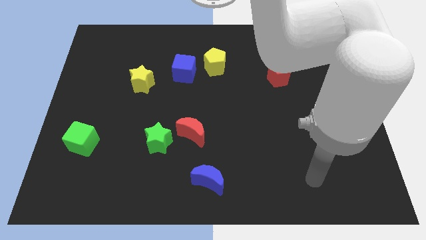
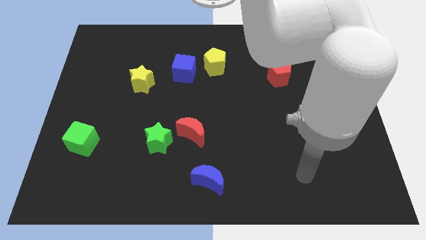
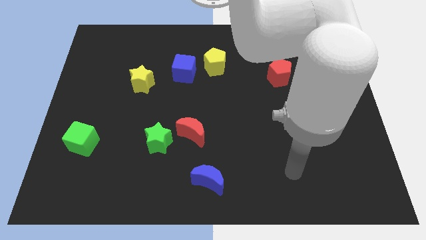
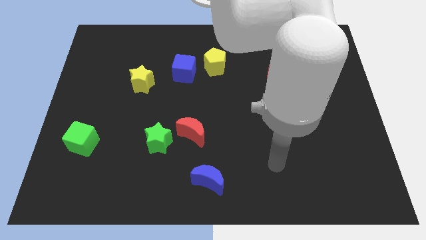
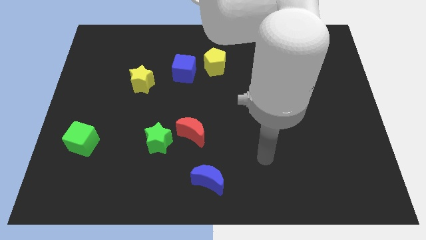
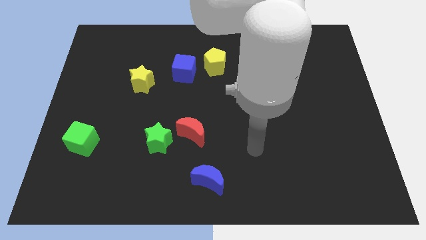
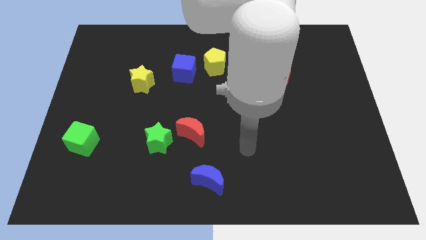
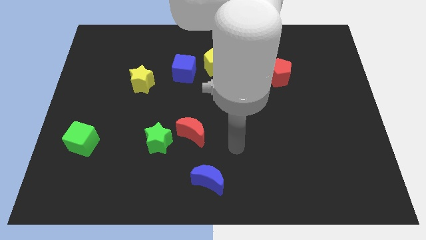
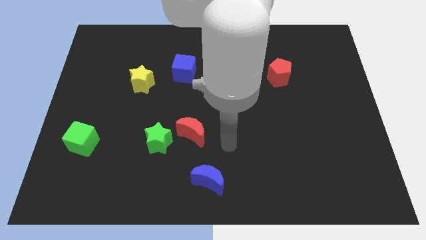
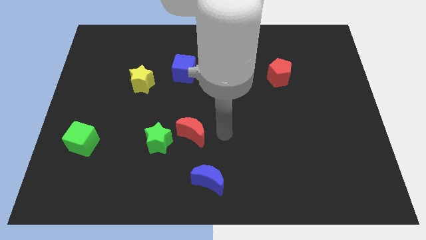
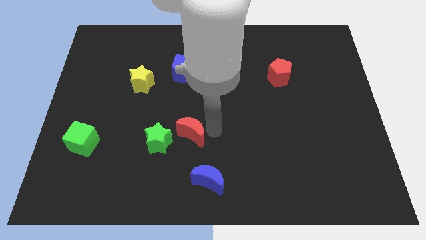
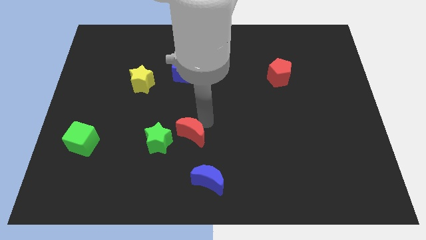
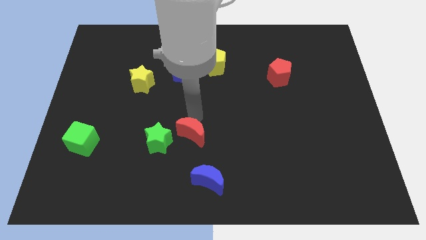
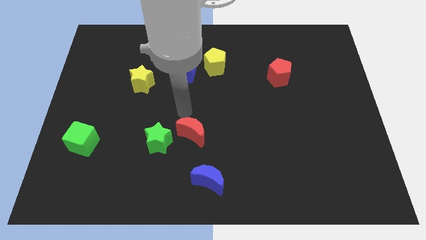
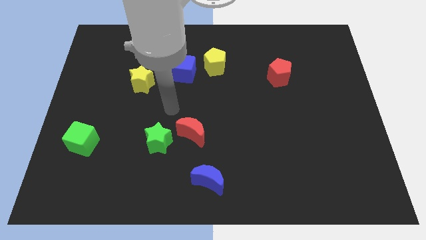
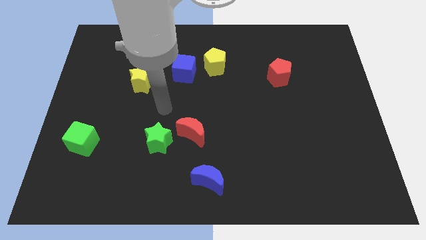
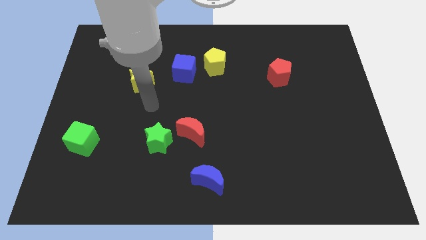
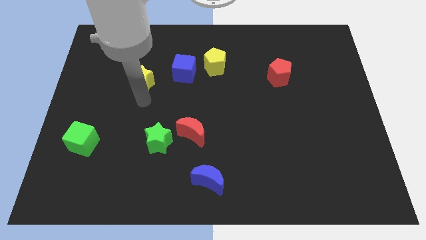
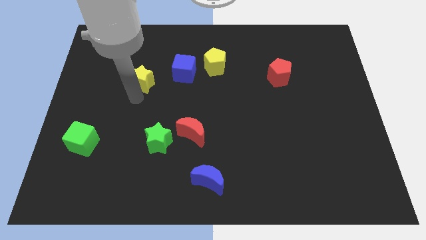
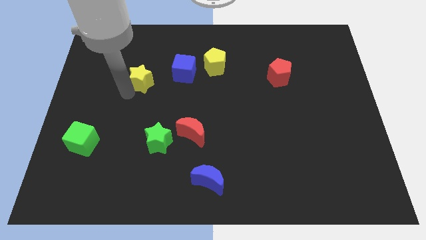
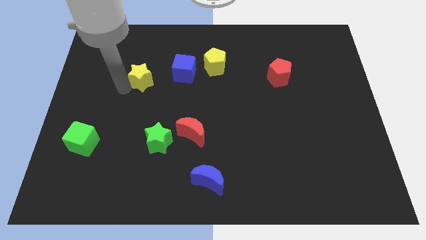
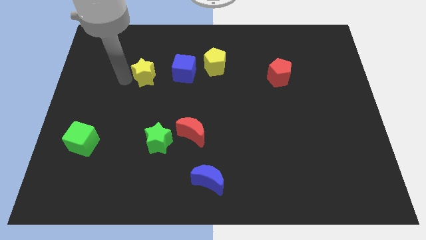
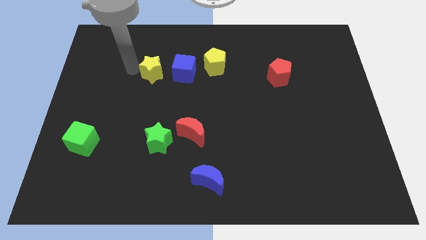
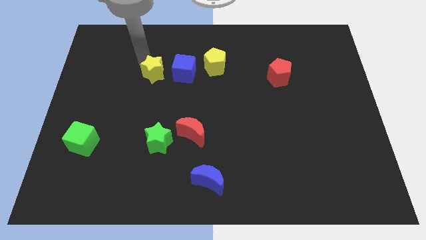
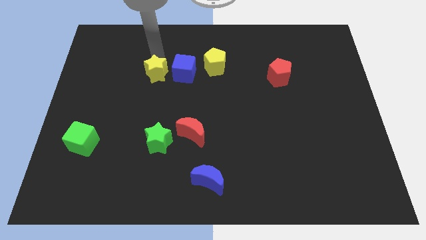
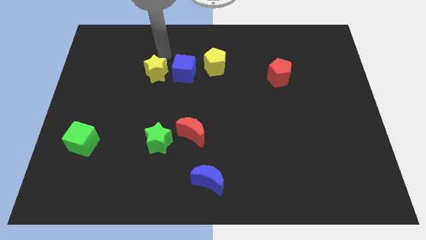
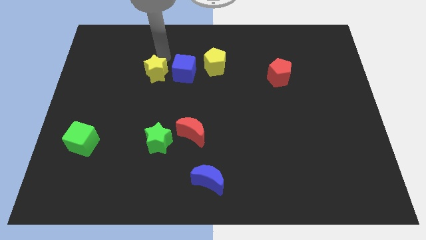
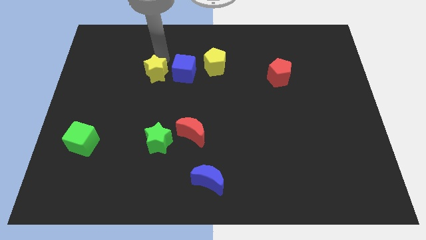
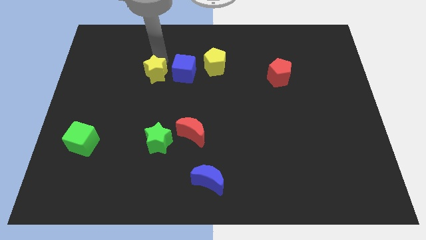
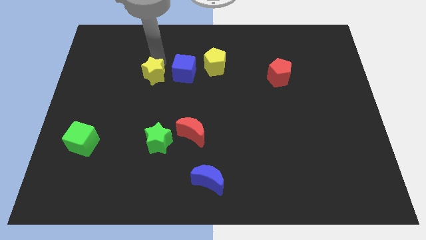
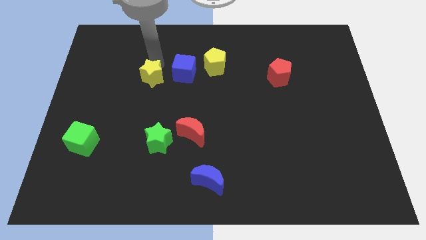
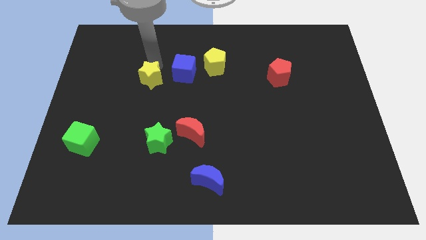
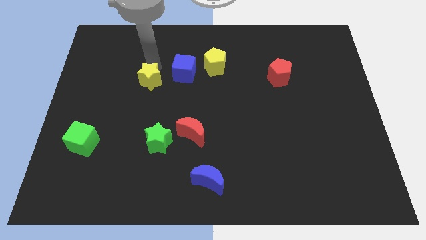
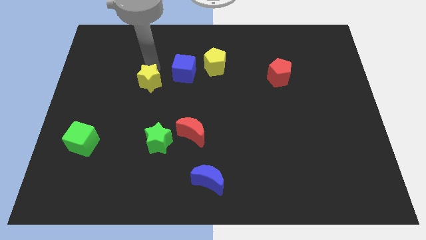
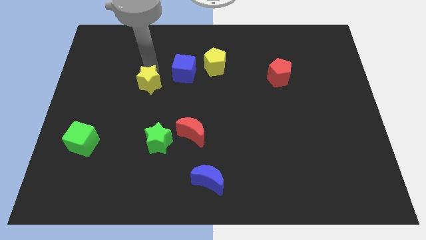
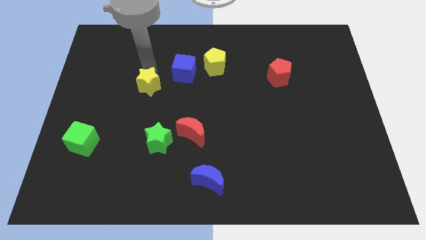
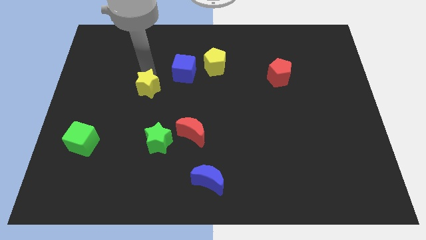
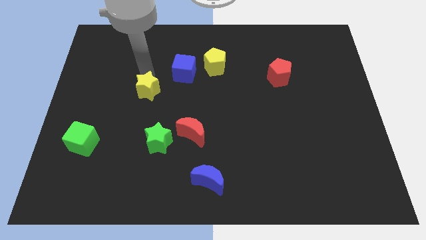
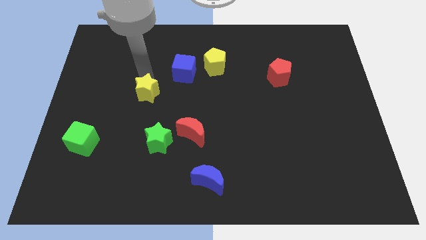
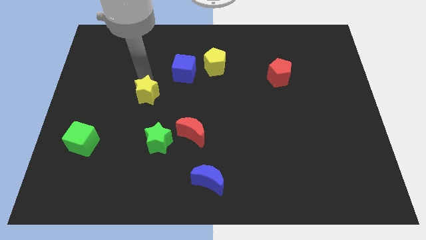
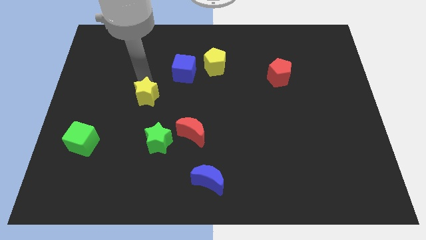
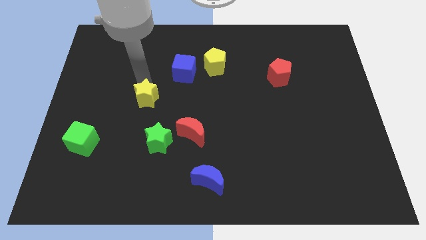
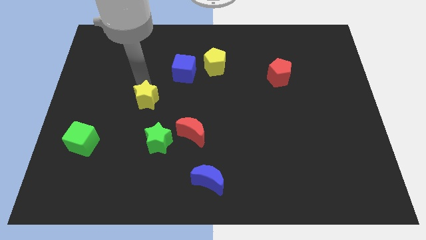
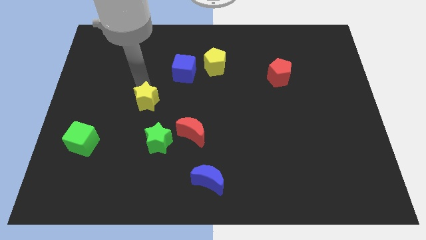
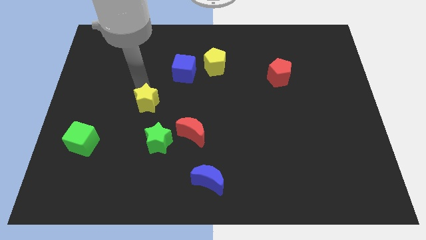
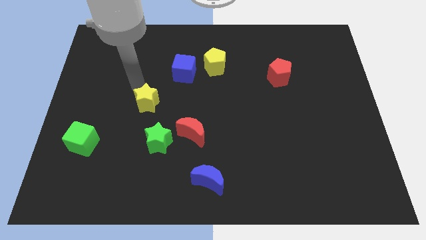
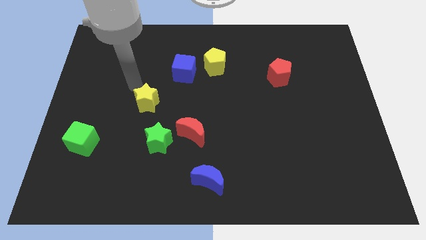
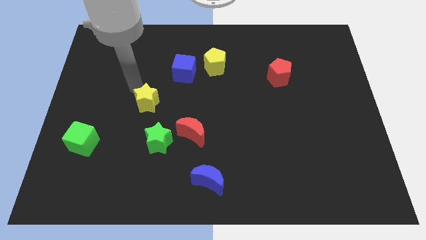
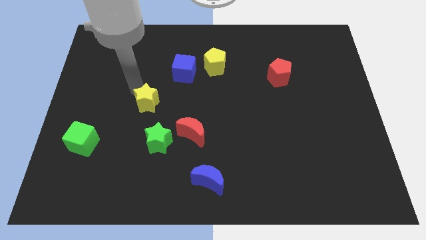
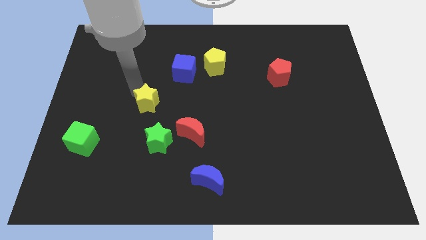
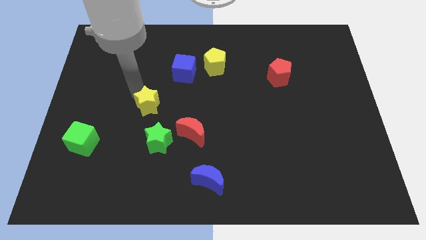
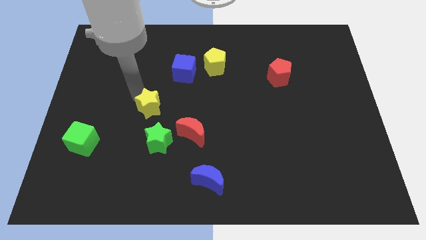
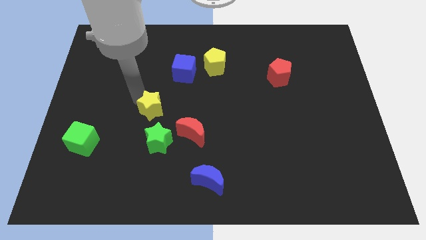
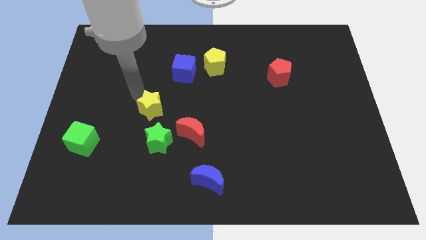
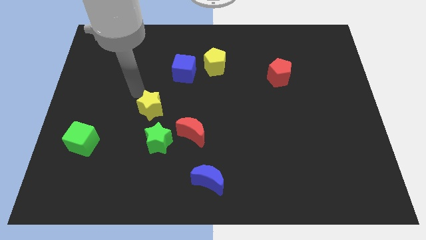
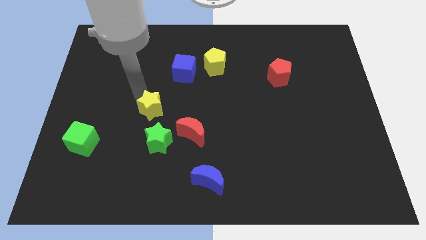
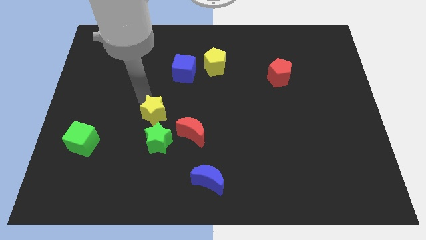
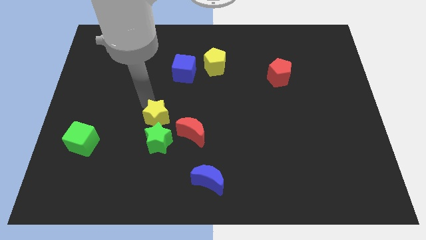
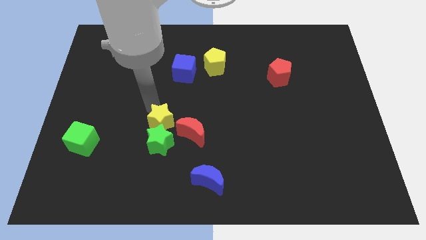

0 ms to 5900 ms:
put the yellow star towards the green star

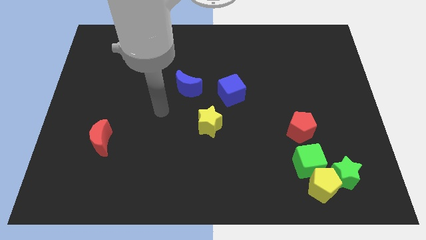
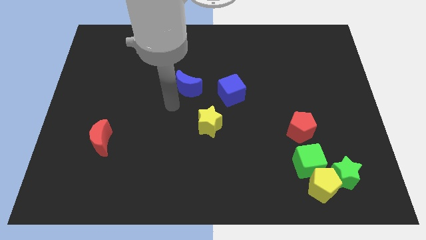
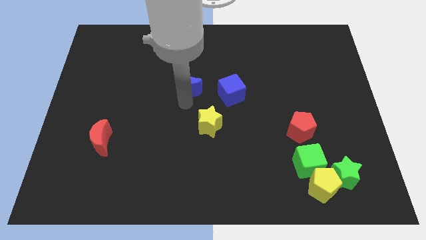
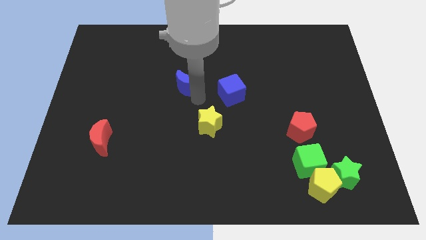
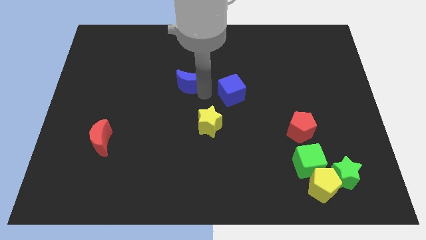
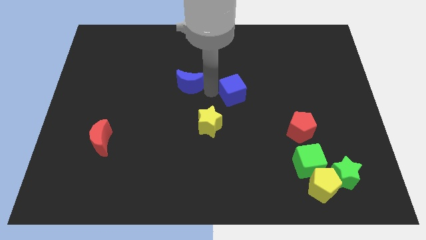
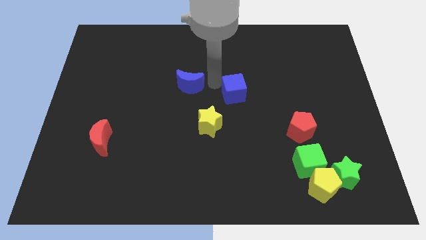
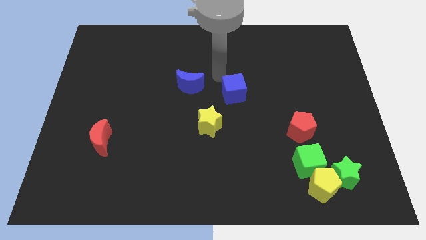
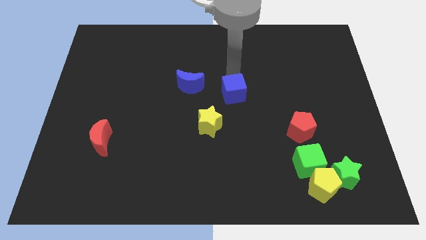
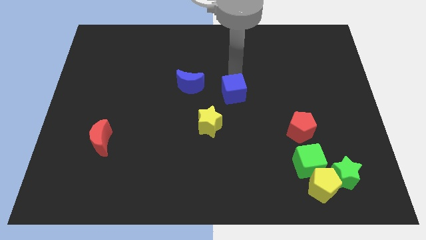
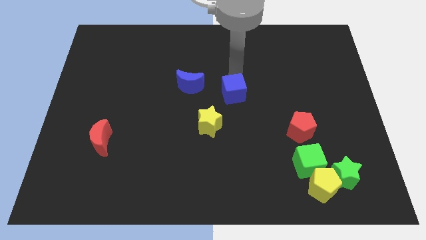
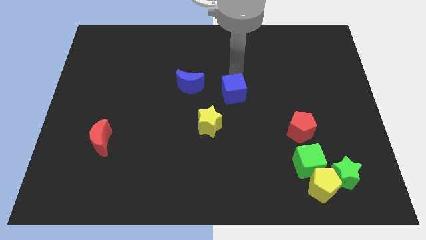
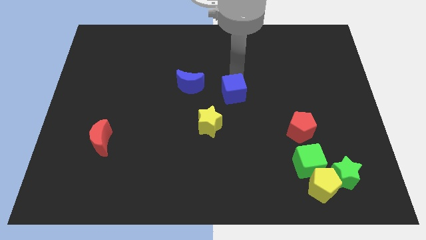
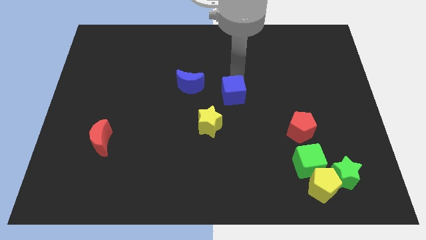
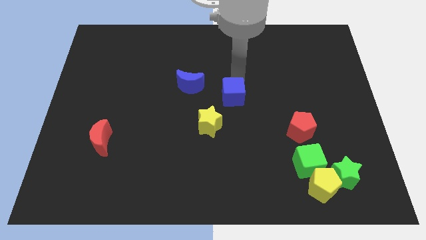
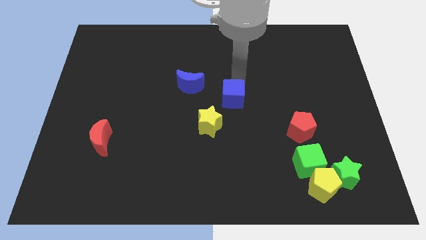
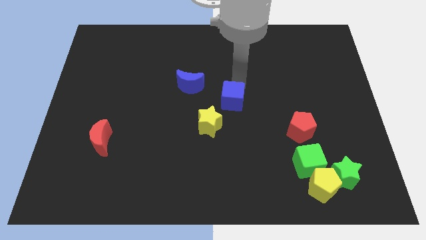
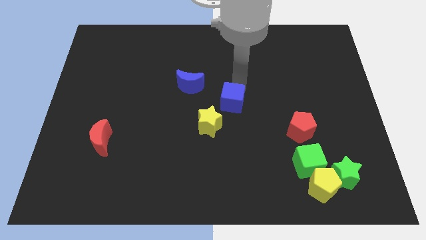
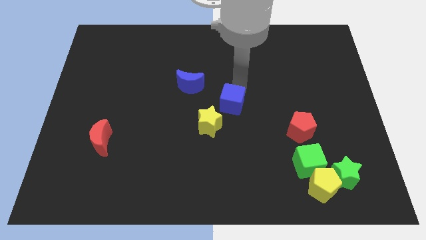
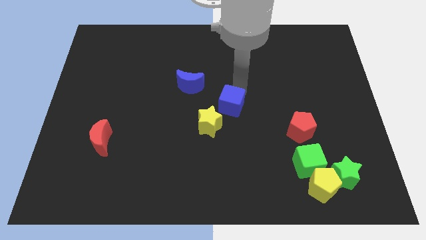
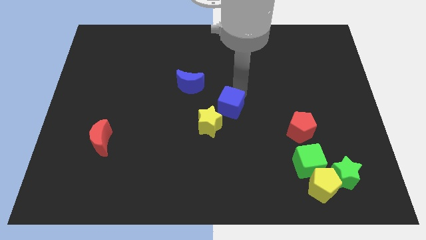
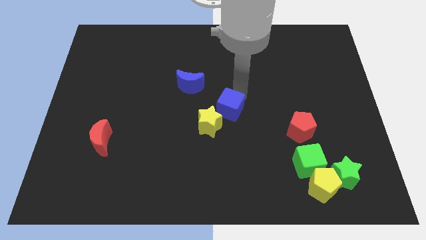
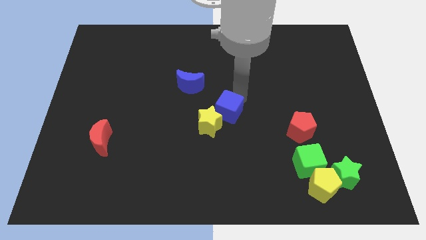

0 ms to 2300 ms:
put the blue cube to the yellow star
